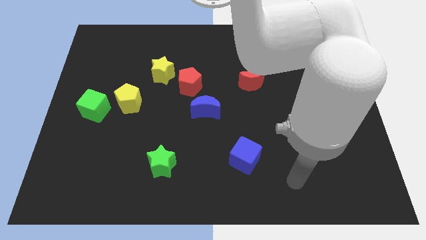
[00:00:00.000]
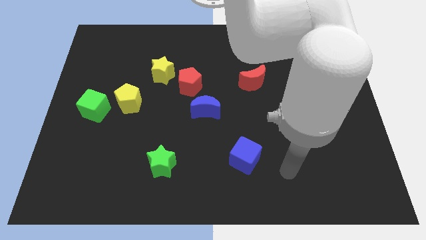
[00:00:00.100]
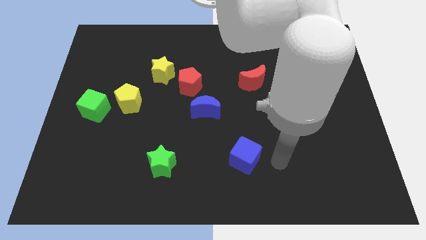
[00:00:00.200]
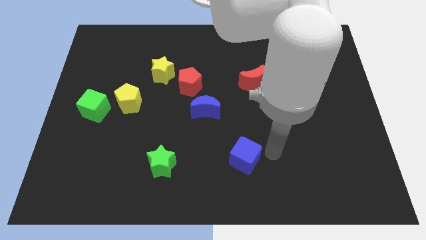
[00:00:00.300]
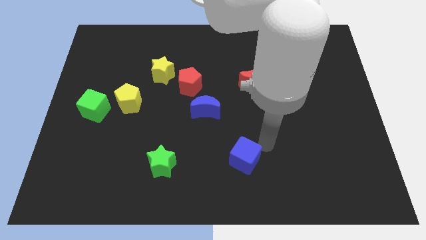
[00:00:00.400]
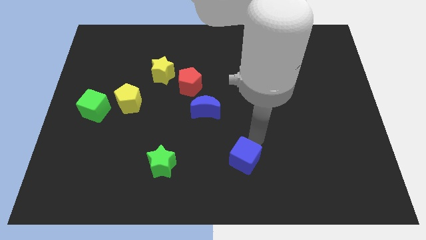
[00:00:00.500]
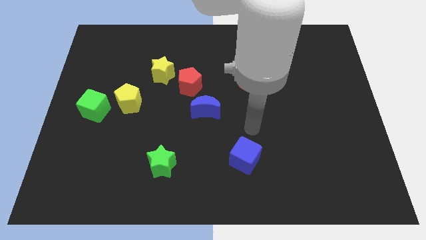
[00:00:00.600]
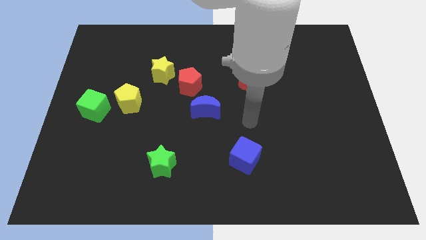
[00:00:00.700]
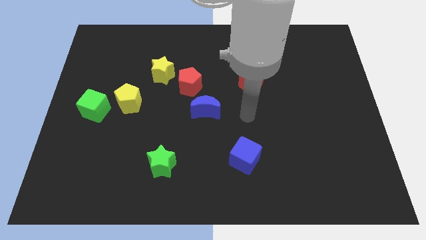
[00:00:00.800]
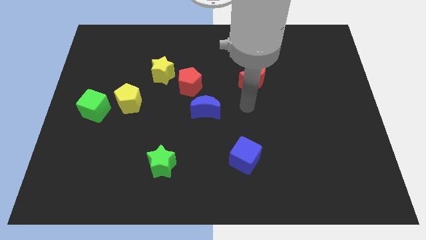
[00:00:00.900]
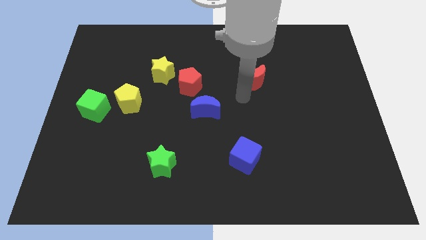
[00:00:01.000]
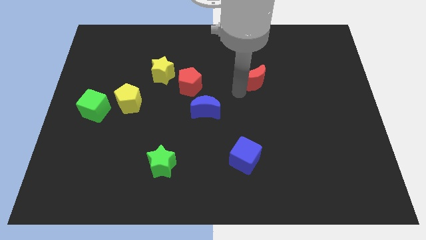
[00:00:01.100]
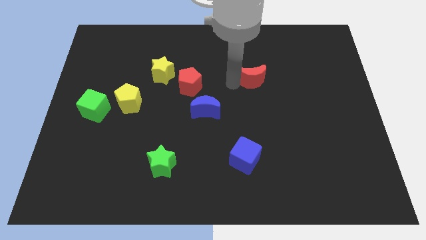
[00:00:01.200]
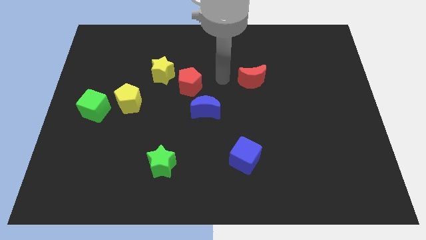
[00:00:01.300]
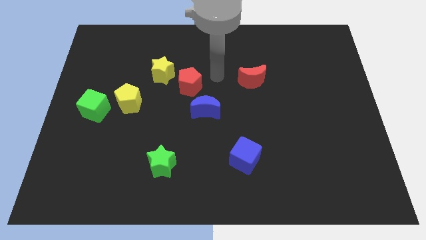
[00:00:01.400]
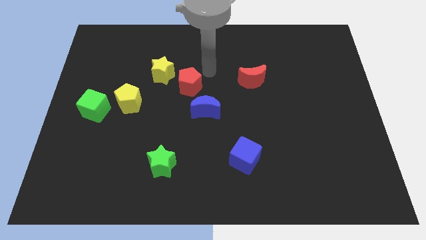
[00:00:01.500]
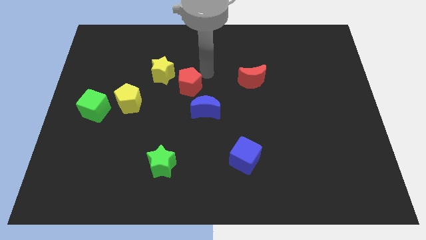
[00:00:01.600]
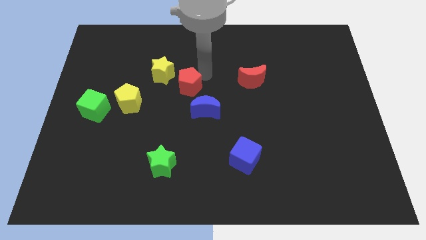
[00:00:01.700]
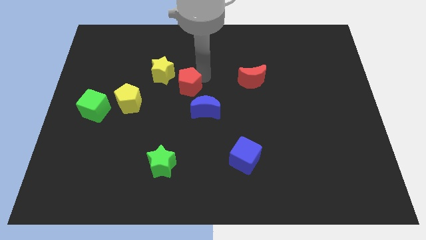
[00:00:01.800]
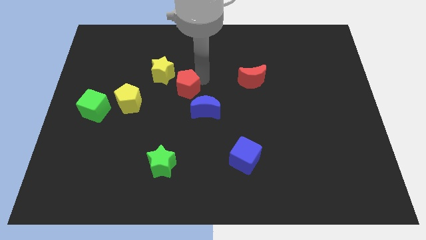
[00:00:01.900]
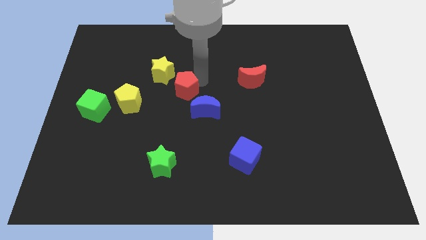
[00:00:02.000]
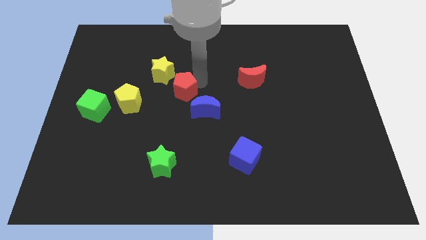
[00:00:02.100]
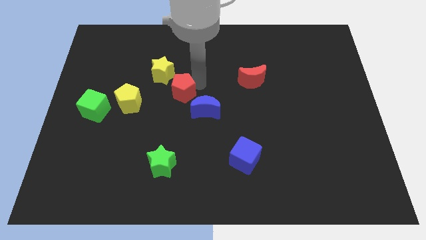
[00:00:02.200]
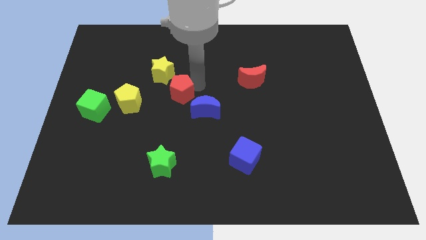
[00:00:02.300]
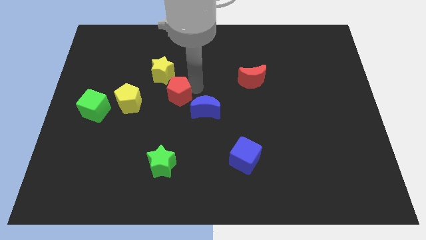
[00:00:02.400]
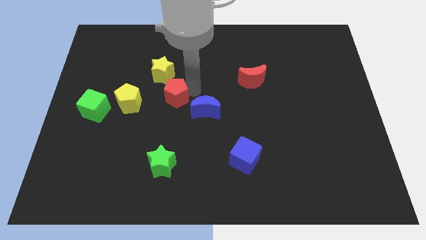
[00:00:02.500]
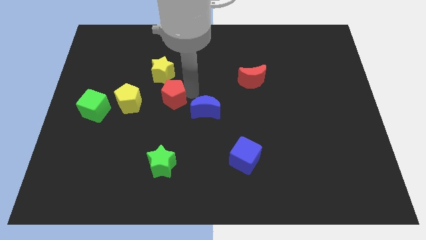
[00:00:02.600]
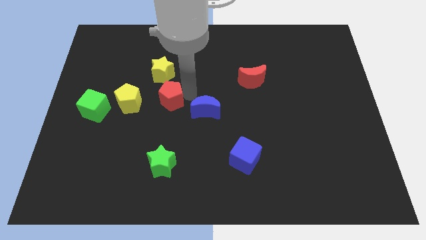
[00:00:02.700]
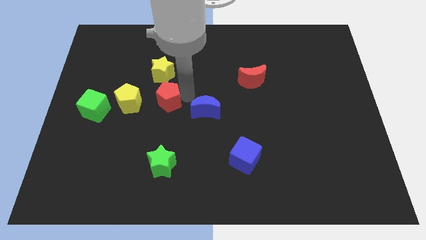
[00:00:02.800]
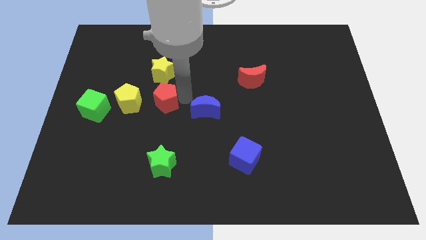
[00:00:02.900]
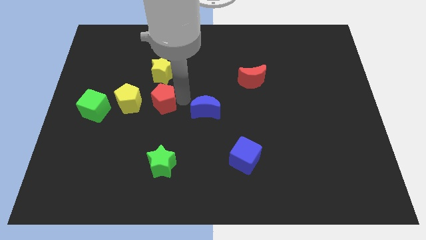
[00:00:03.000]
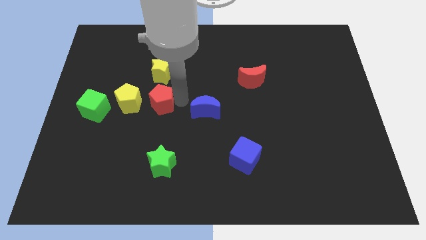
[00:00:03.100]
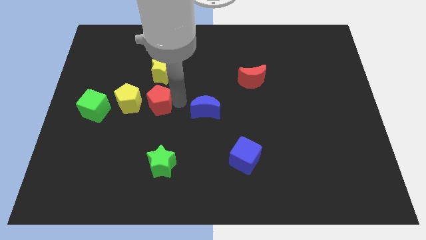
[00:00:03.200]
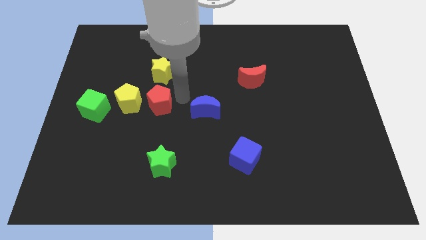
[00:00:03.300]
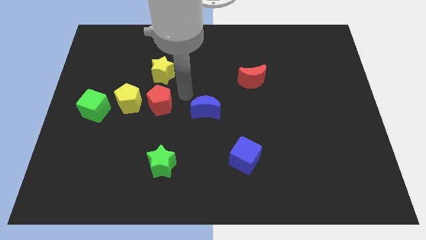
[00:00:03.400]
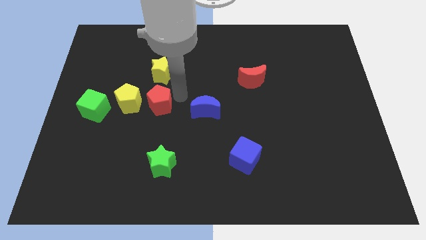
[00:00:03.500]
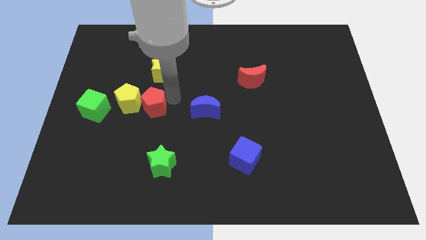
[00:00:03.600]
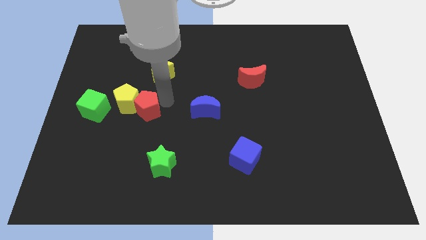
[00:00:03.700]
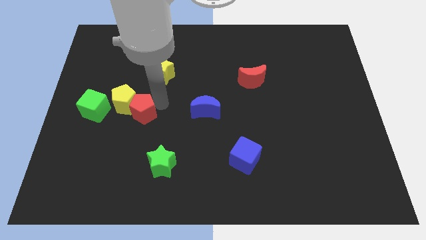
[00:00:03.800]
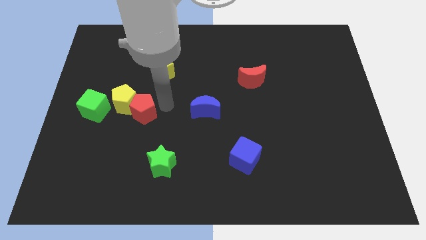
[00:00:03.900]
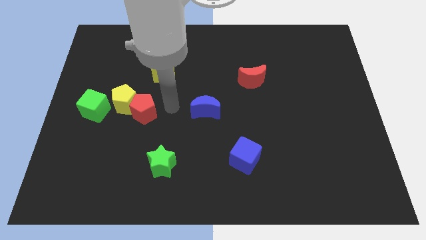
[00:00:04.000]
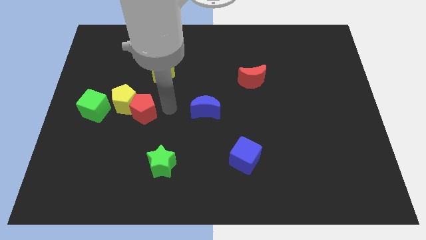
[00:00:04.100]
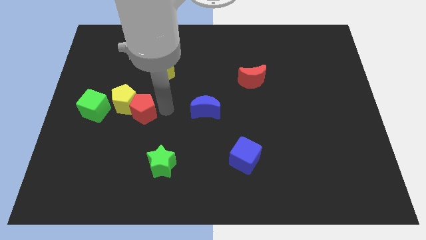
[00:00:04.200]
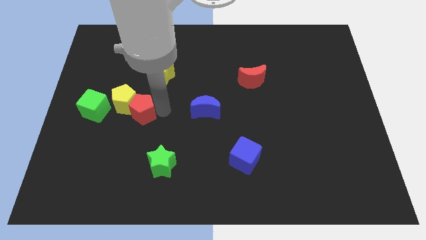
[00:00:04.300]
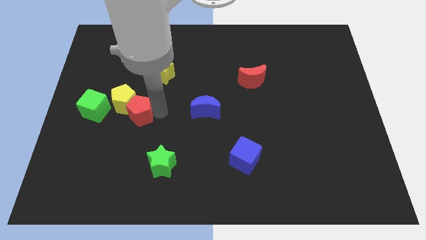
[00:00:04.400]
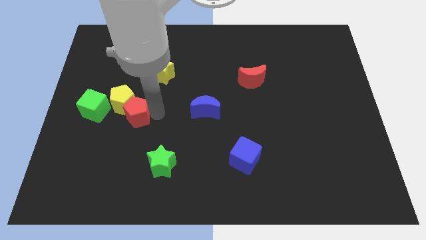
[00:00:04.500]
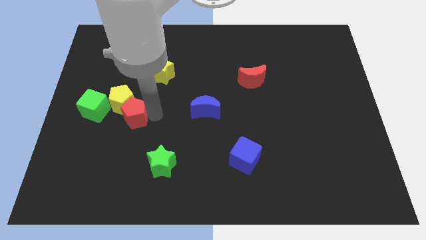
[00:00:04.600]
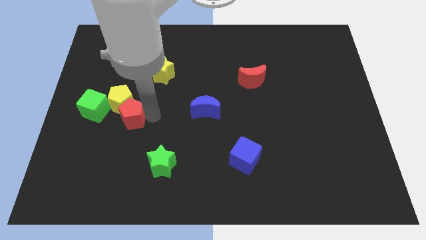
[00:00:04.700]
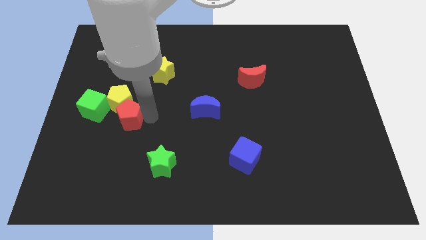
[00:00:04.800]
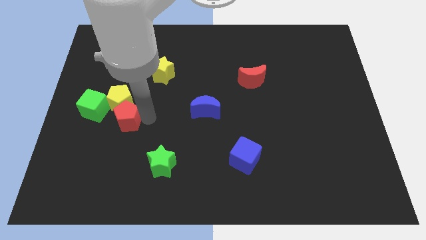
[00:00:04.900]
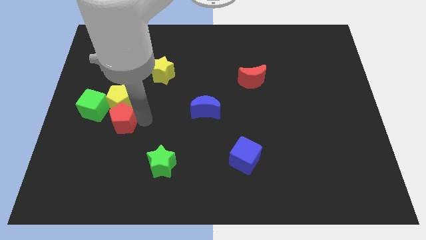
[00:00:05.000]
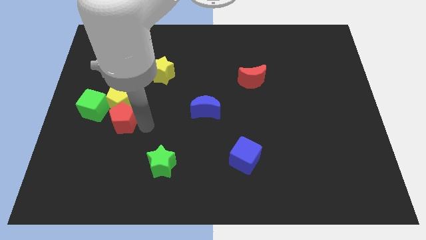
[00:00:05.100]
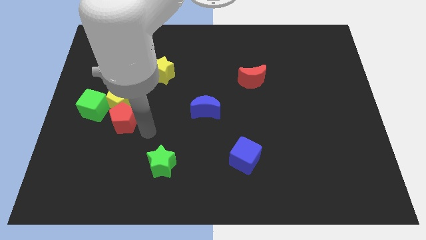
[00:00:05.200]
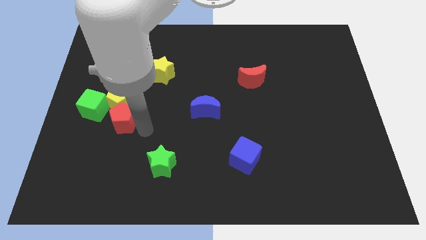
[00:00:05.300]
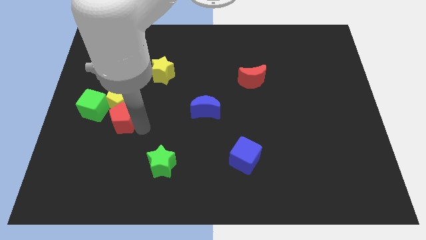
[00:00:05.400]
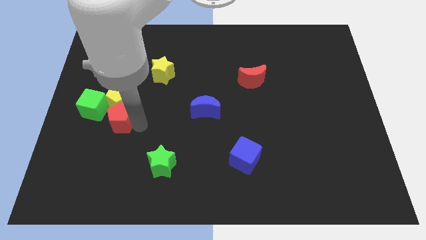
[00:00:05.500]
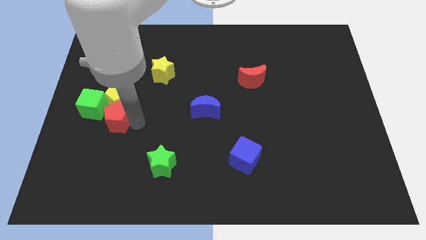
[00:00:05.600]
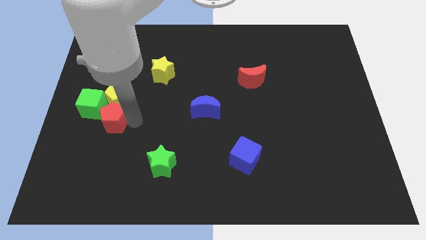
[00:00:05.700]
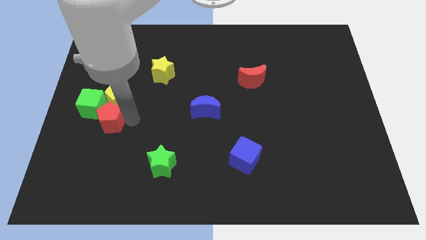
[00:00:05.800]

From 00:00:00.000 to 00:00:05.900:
put the red pentagon towards the green cube

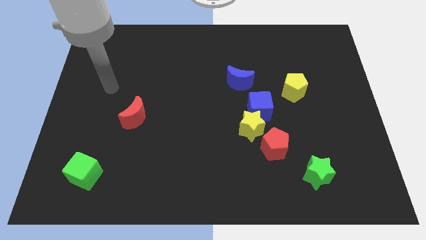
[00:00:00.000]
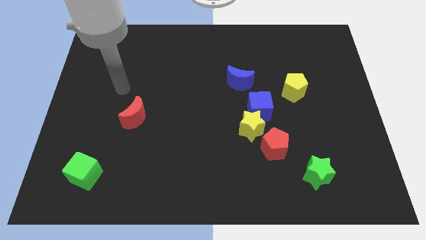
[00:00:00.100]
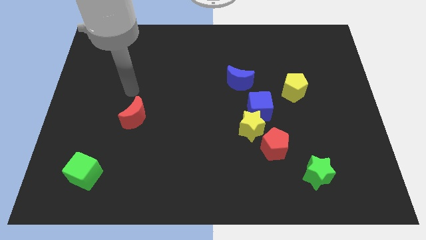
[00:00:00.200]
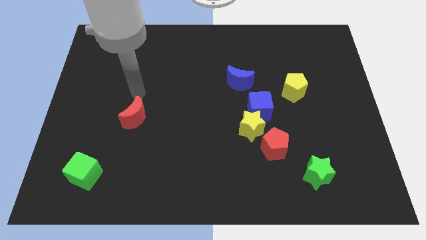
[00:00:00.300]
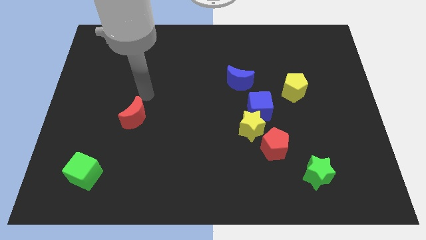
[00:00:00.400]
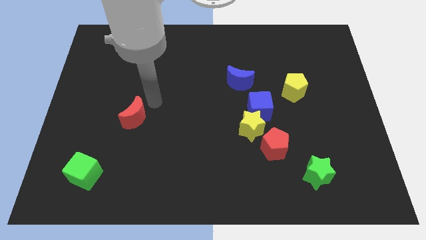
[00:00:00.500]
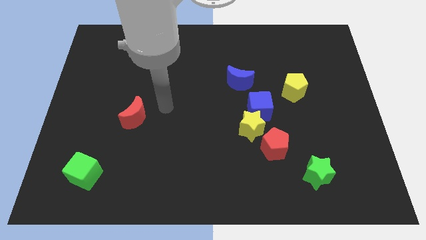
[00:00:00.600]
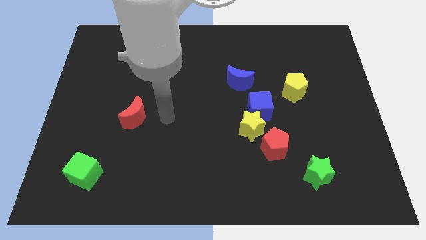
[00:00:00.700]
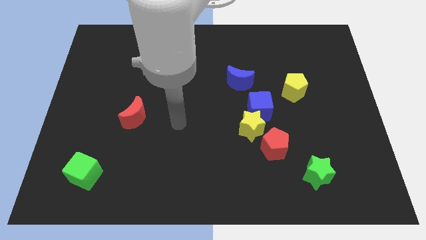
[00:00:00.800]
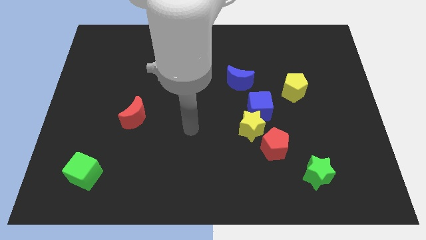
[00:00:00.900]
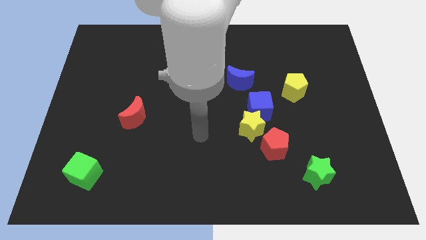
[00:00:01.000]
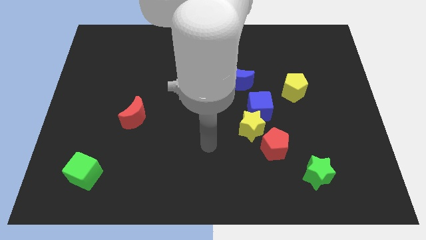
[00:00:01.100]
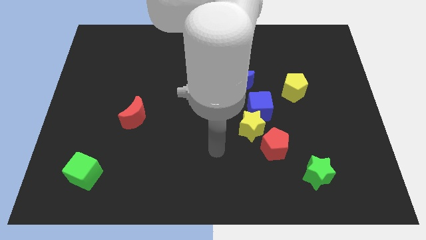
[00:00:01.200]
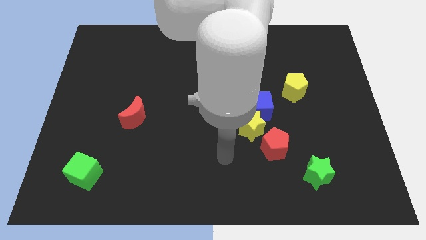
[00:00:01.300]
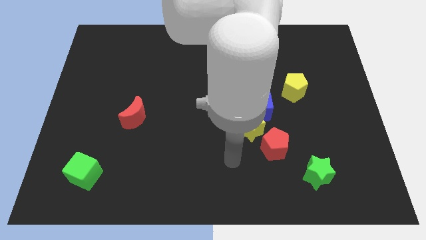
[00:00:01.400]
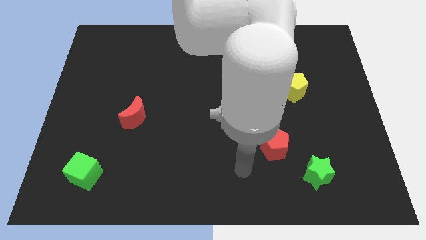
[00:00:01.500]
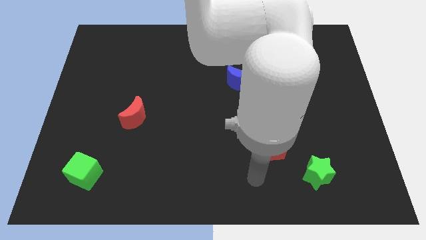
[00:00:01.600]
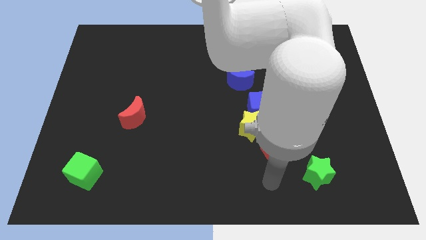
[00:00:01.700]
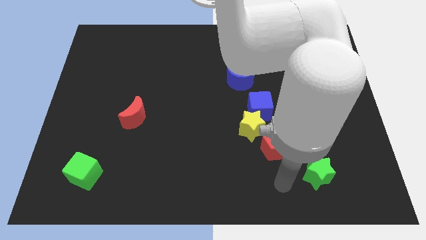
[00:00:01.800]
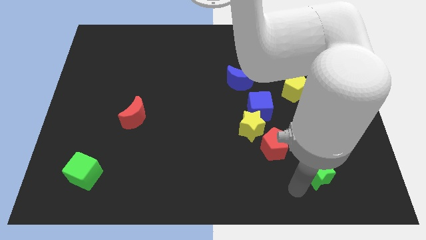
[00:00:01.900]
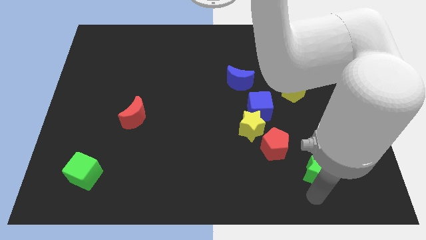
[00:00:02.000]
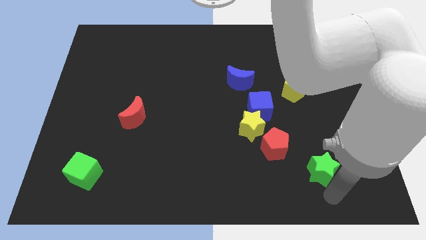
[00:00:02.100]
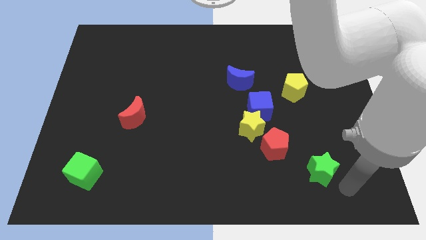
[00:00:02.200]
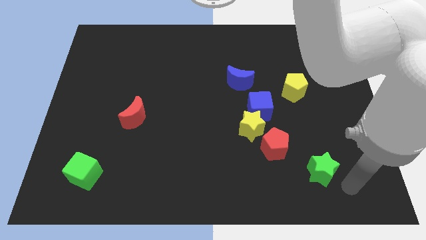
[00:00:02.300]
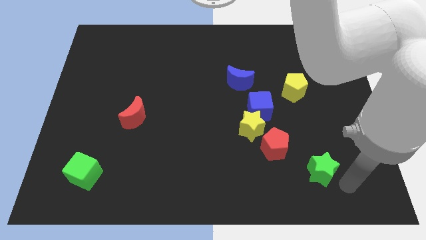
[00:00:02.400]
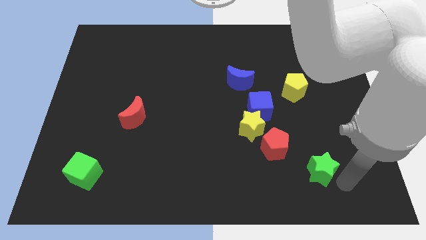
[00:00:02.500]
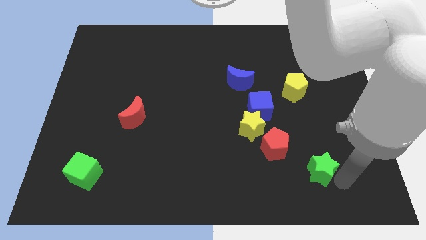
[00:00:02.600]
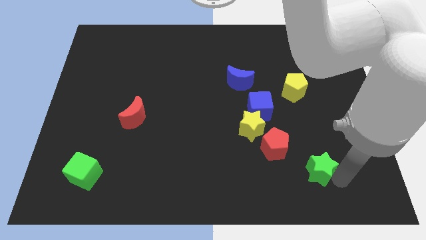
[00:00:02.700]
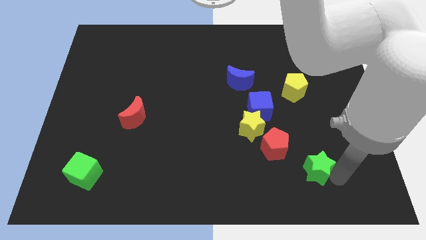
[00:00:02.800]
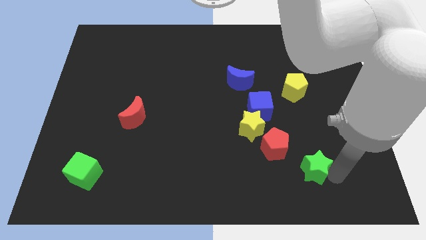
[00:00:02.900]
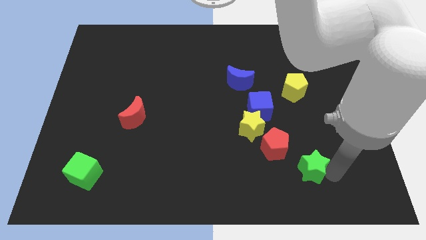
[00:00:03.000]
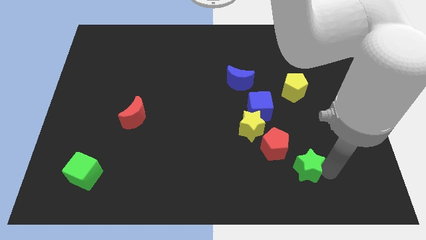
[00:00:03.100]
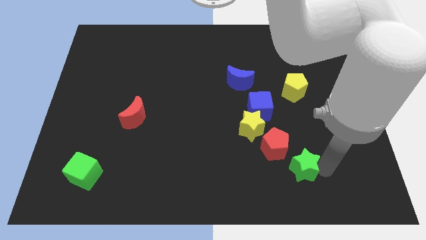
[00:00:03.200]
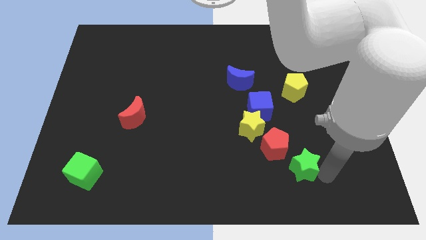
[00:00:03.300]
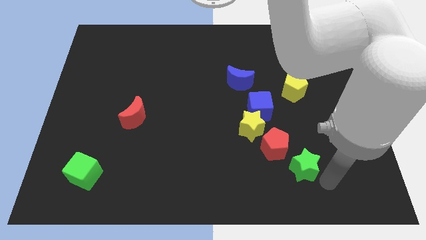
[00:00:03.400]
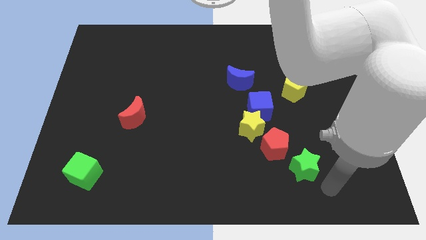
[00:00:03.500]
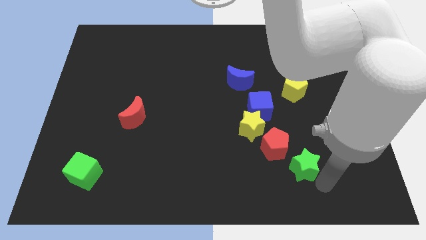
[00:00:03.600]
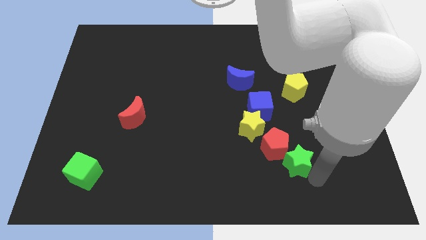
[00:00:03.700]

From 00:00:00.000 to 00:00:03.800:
slide the green star next to the red pentagon
